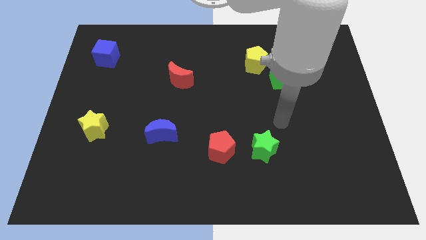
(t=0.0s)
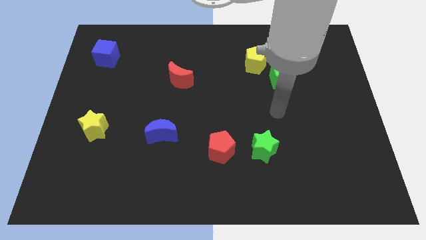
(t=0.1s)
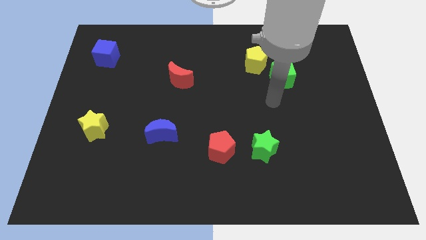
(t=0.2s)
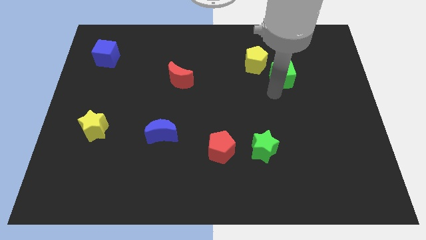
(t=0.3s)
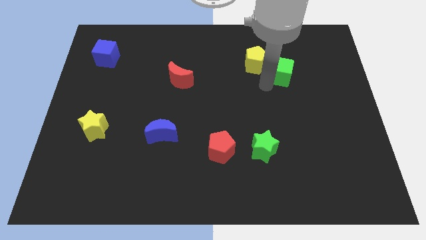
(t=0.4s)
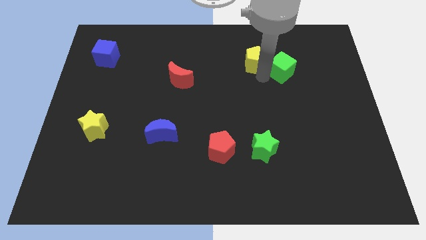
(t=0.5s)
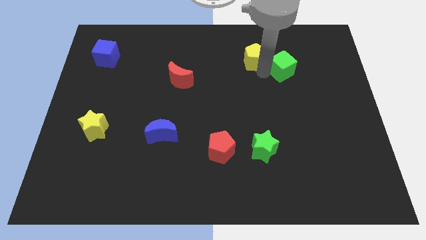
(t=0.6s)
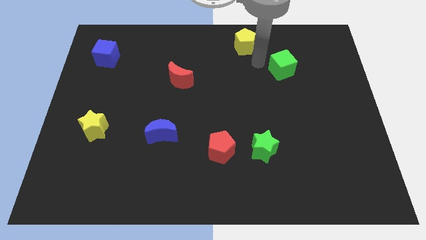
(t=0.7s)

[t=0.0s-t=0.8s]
move the green cube away from the yellow pentagon

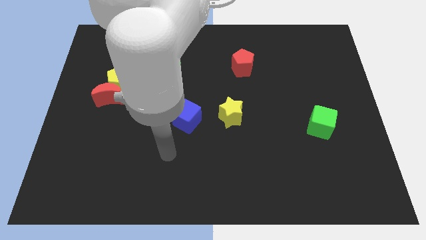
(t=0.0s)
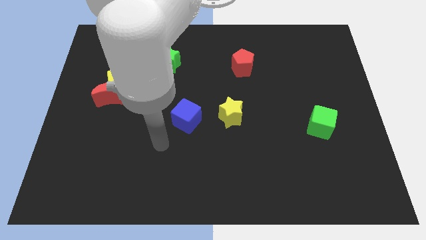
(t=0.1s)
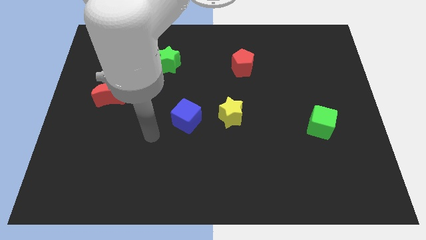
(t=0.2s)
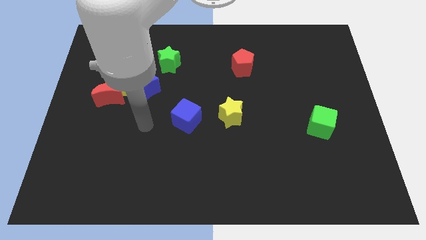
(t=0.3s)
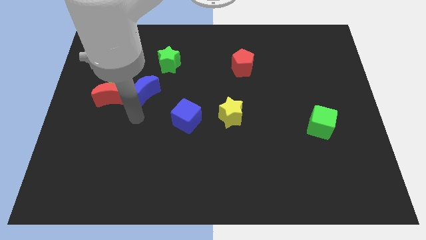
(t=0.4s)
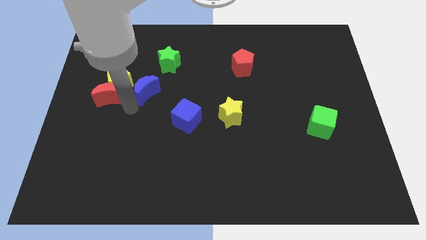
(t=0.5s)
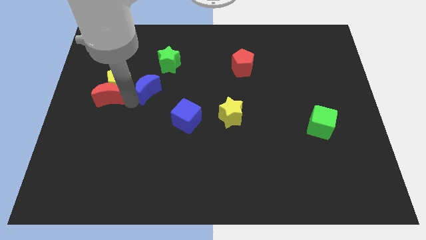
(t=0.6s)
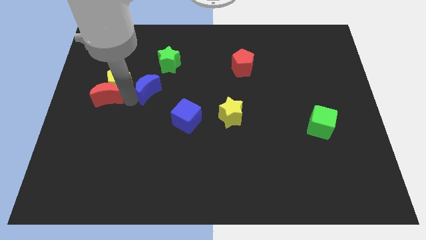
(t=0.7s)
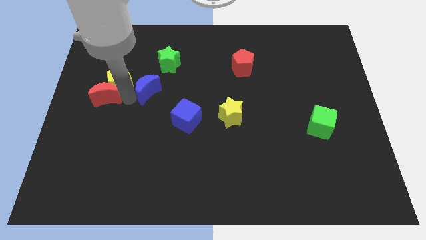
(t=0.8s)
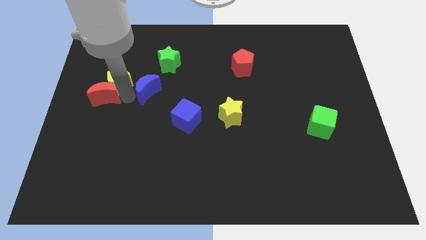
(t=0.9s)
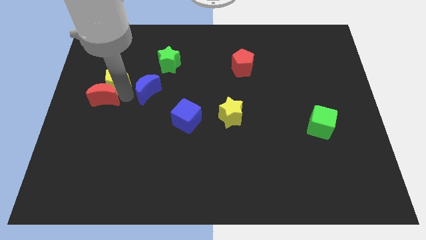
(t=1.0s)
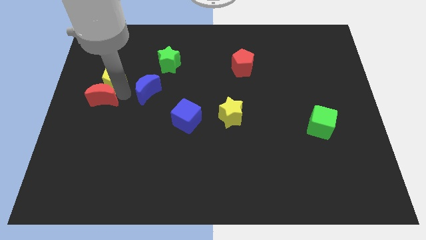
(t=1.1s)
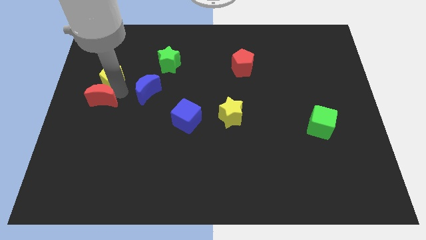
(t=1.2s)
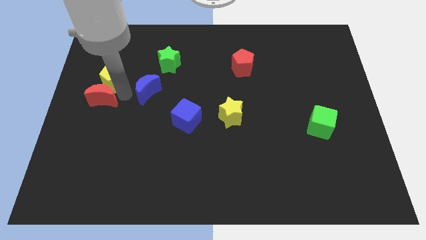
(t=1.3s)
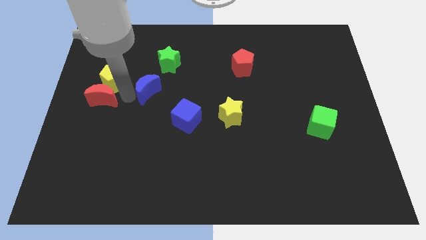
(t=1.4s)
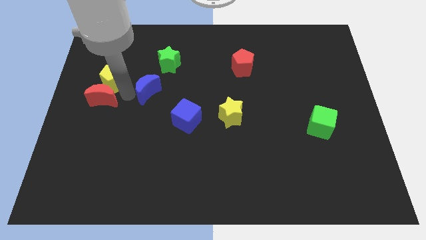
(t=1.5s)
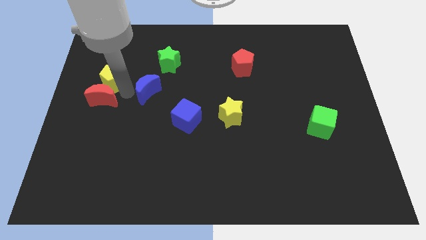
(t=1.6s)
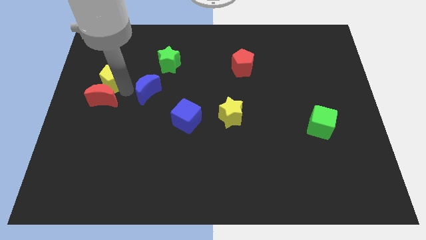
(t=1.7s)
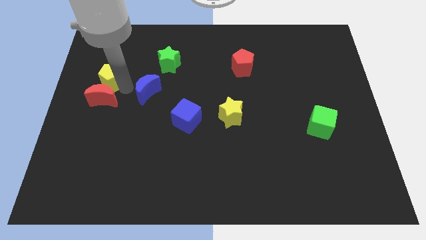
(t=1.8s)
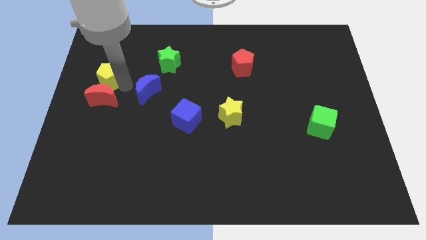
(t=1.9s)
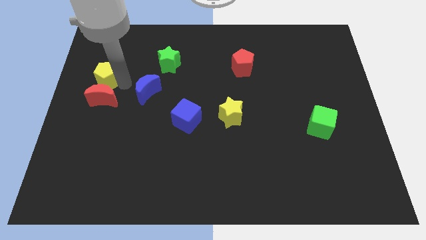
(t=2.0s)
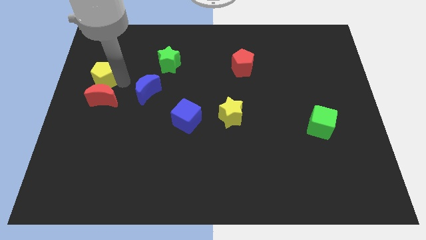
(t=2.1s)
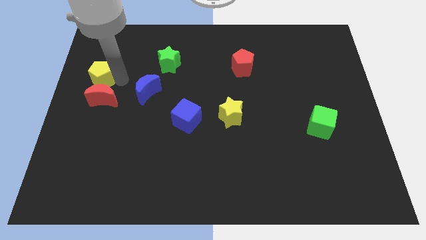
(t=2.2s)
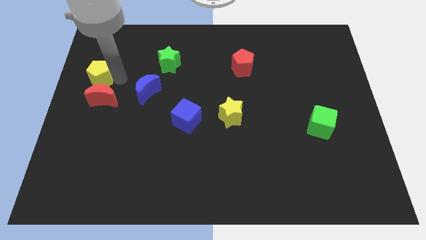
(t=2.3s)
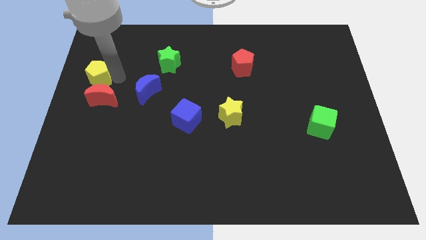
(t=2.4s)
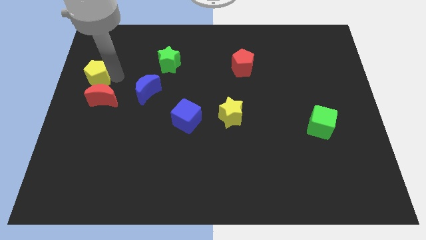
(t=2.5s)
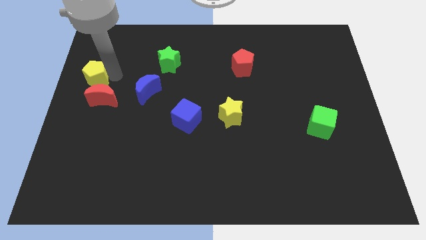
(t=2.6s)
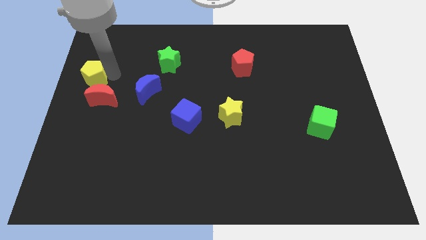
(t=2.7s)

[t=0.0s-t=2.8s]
pull the yellow pentagon apart from the red moon and blue moon

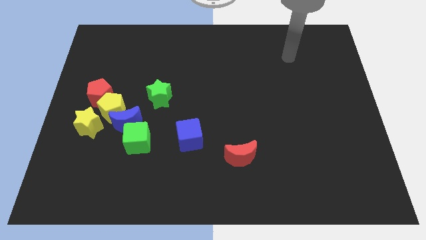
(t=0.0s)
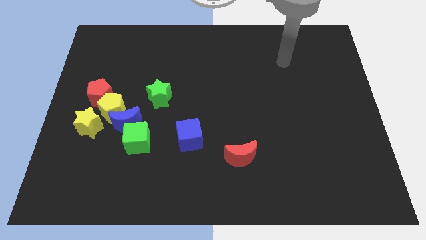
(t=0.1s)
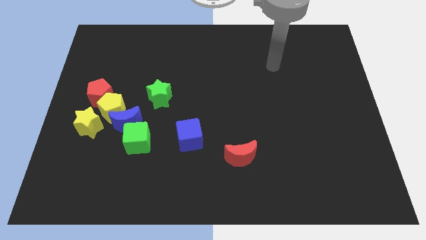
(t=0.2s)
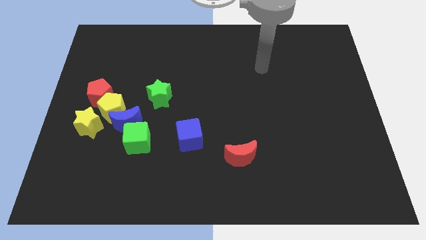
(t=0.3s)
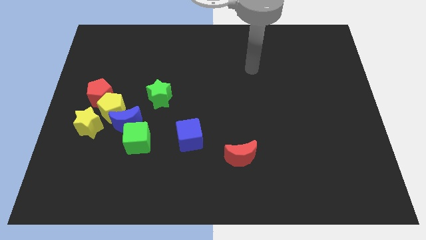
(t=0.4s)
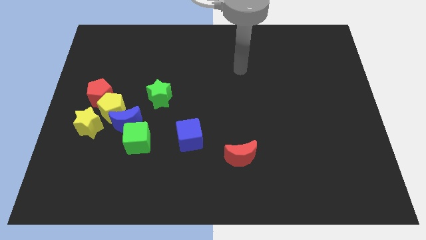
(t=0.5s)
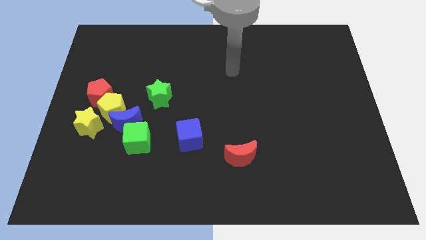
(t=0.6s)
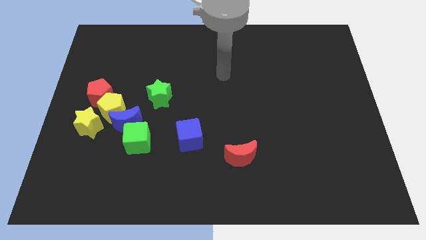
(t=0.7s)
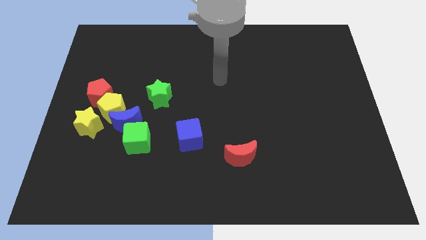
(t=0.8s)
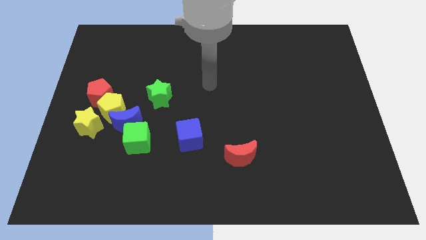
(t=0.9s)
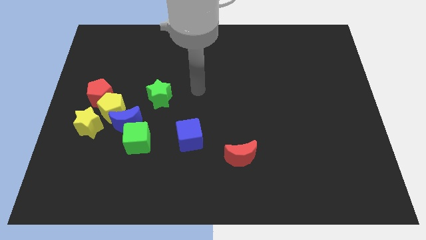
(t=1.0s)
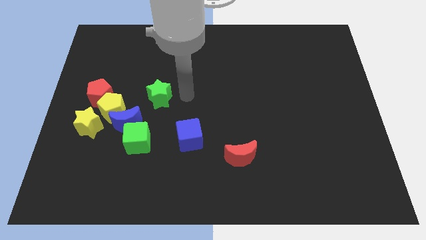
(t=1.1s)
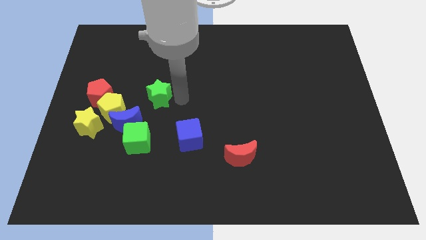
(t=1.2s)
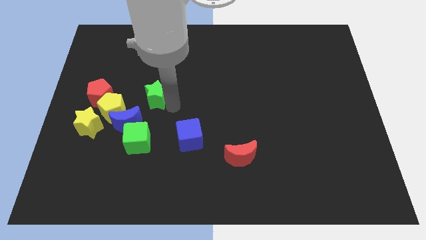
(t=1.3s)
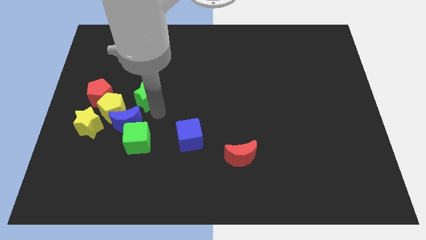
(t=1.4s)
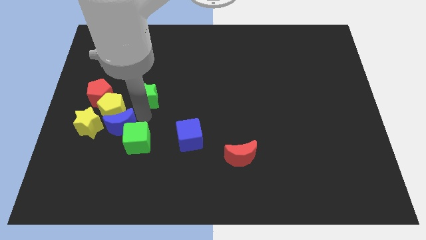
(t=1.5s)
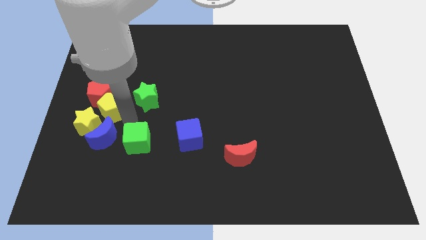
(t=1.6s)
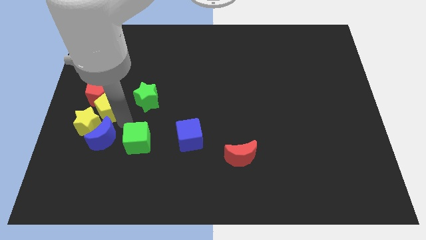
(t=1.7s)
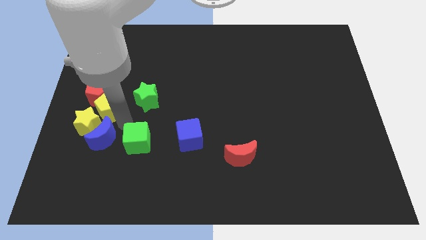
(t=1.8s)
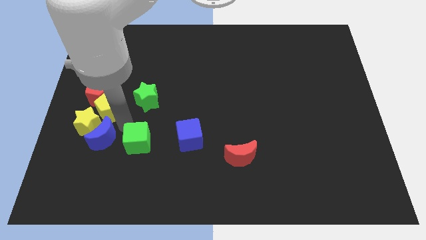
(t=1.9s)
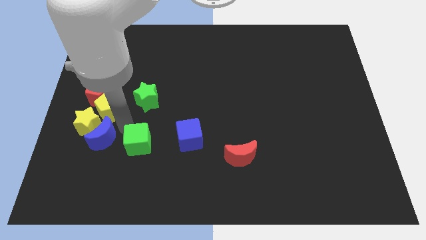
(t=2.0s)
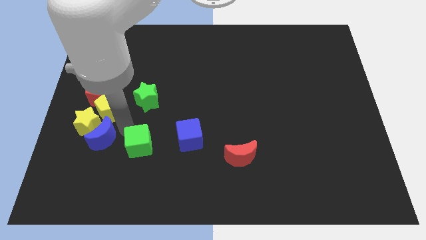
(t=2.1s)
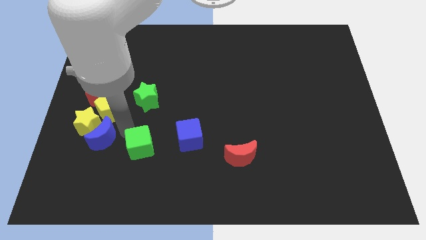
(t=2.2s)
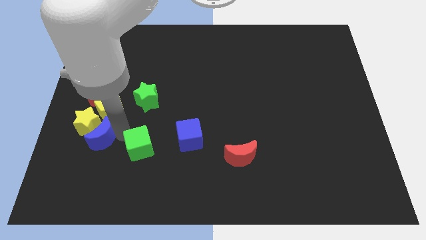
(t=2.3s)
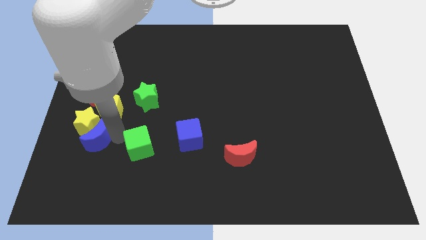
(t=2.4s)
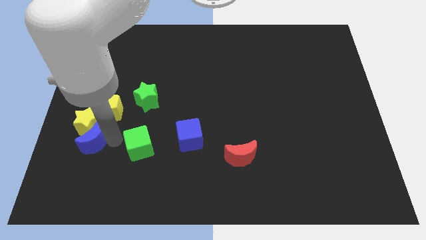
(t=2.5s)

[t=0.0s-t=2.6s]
pull the green cube apart from the blue moon

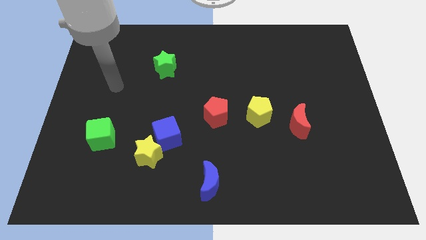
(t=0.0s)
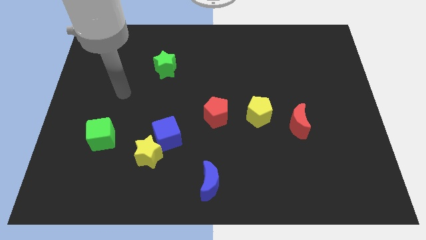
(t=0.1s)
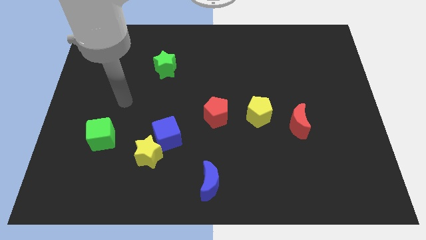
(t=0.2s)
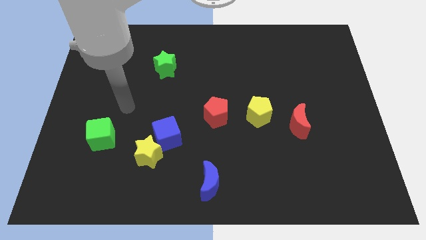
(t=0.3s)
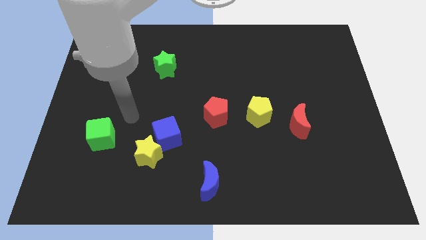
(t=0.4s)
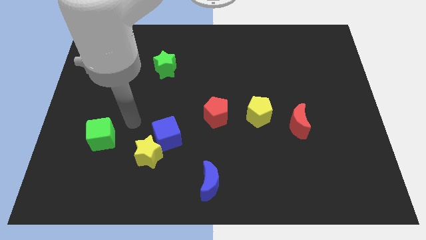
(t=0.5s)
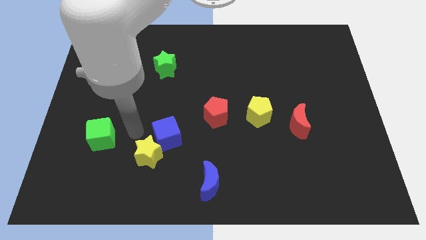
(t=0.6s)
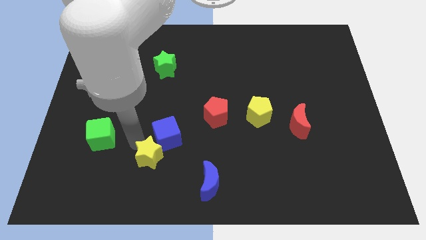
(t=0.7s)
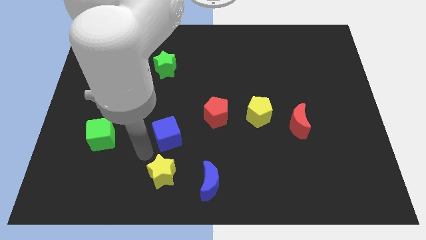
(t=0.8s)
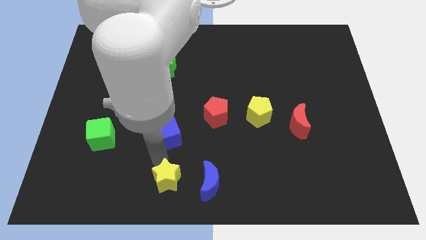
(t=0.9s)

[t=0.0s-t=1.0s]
separate the blue cube from the yellow star

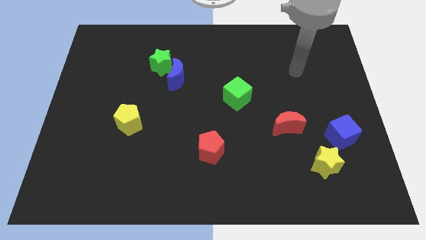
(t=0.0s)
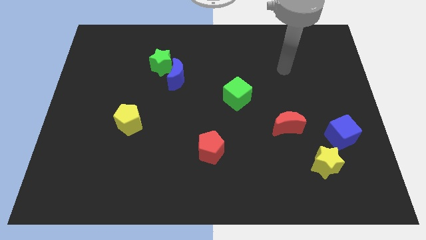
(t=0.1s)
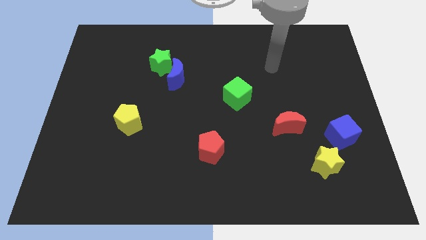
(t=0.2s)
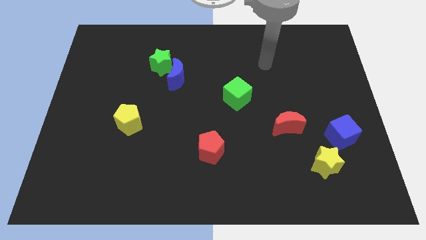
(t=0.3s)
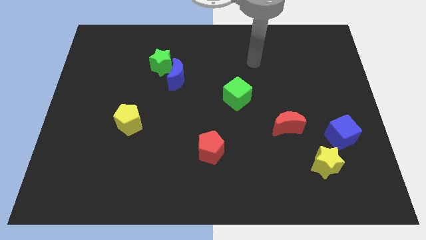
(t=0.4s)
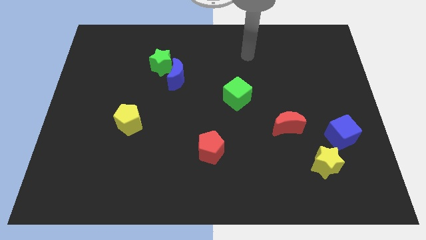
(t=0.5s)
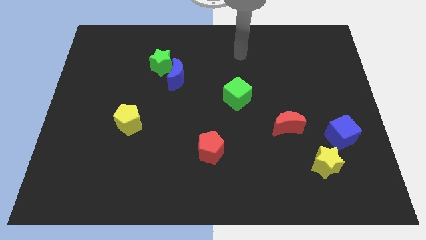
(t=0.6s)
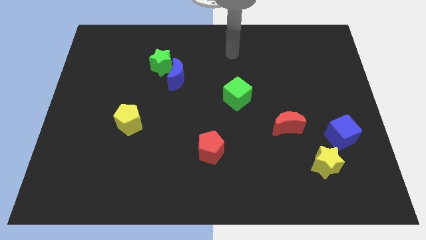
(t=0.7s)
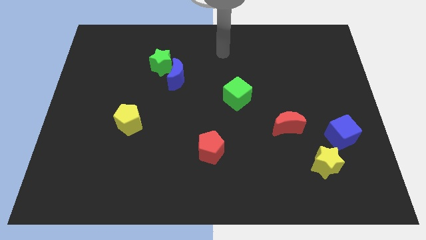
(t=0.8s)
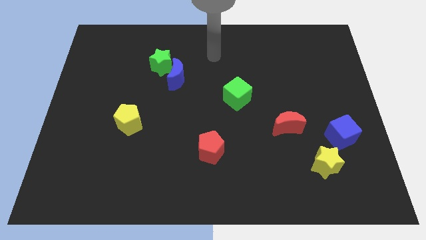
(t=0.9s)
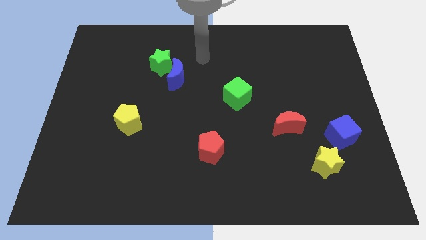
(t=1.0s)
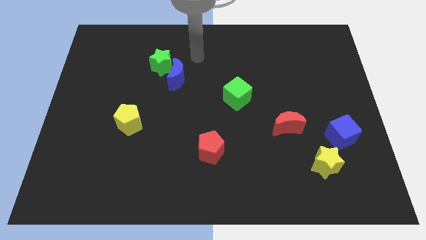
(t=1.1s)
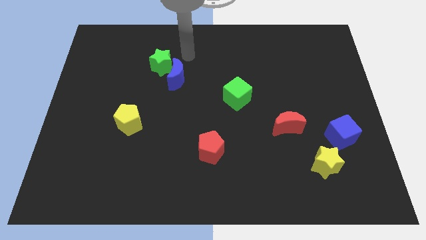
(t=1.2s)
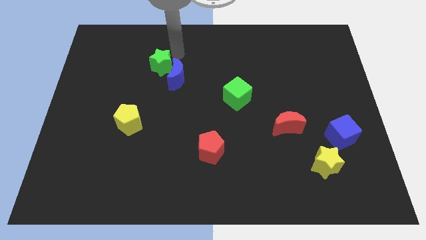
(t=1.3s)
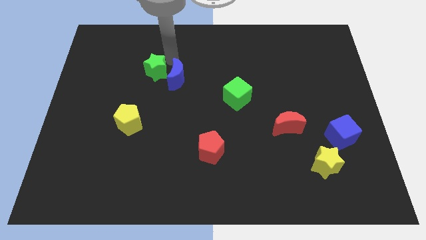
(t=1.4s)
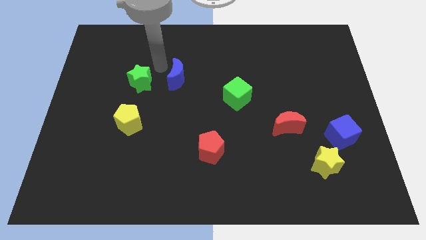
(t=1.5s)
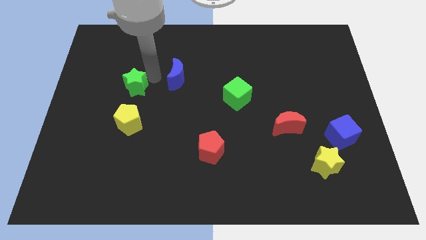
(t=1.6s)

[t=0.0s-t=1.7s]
separate the blue moon from the green star

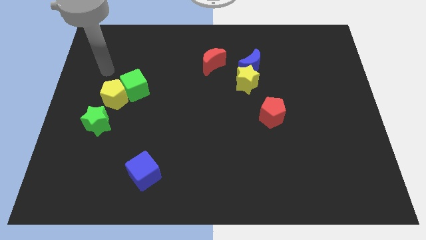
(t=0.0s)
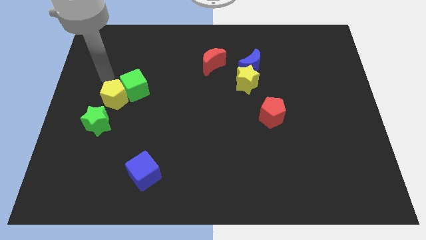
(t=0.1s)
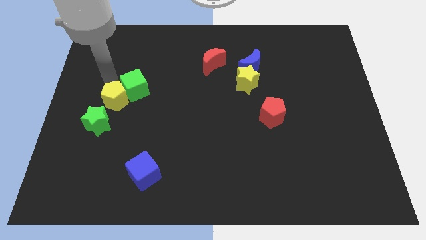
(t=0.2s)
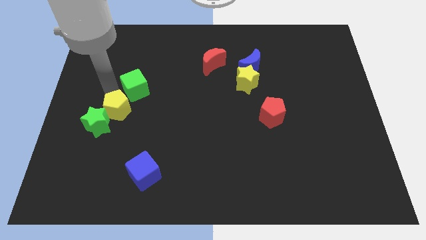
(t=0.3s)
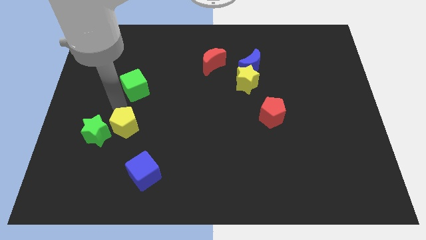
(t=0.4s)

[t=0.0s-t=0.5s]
pull the green cube apart from the yellow pentagon
